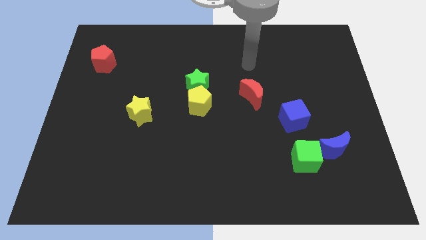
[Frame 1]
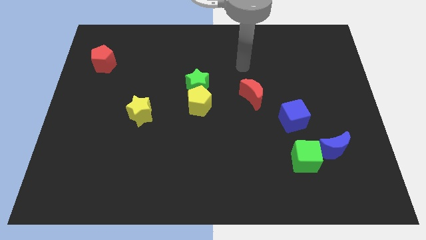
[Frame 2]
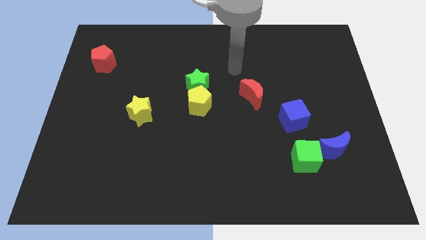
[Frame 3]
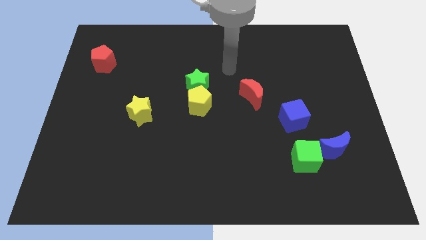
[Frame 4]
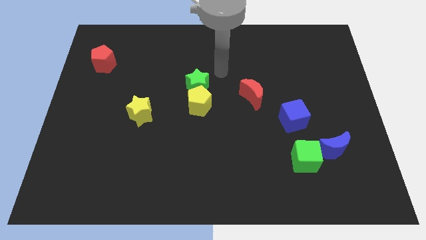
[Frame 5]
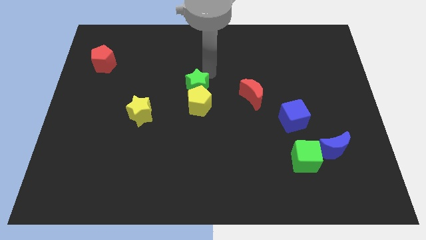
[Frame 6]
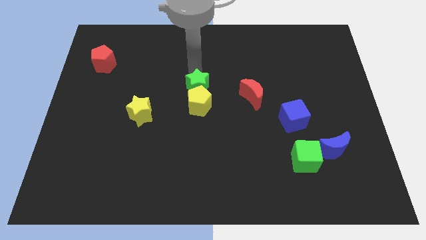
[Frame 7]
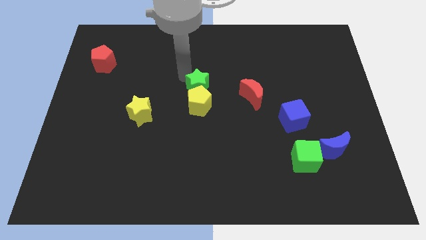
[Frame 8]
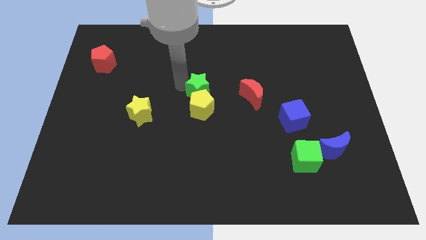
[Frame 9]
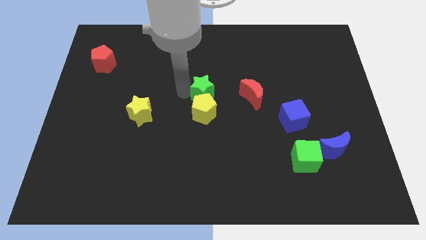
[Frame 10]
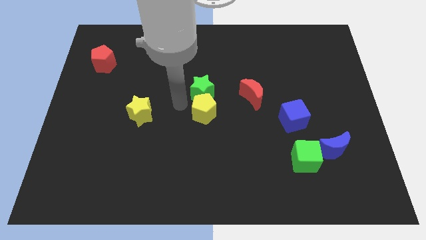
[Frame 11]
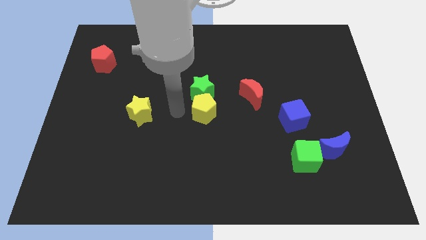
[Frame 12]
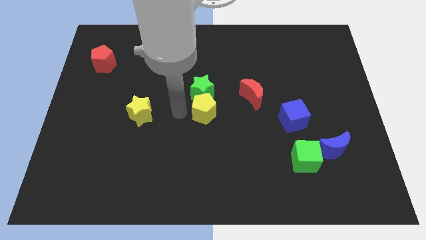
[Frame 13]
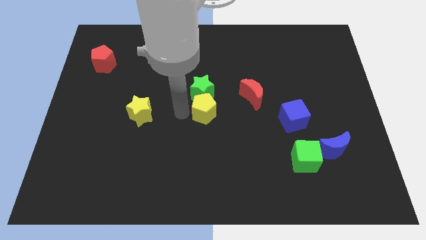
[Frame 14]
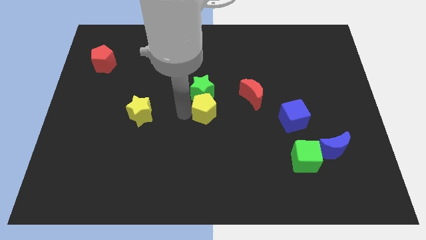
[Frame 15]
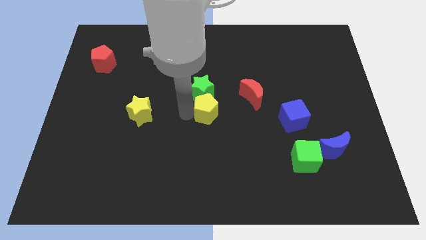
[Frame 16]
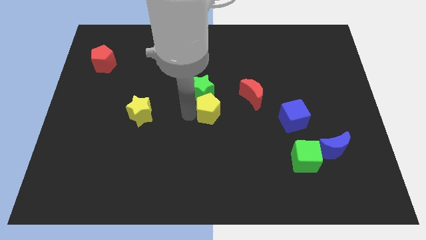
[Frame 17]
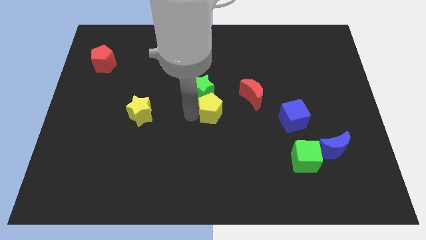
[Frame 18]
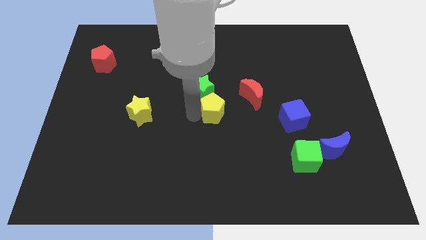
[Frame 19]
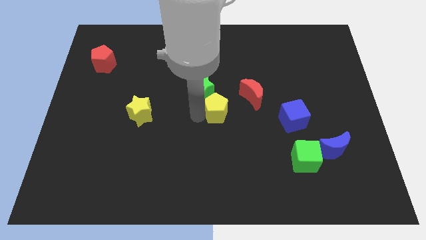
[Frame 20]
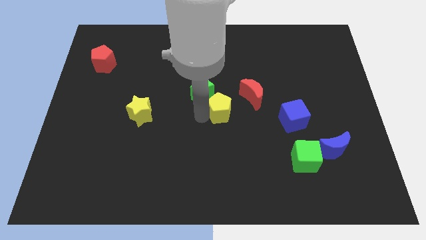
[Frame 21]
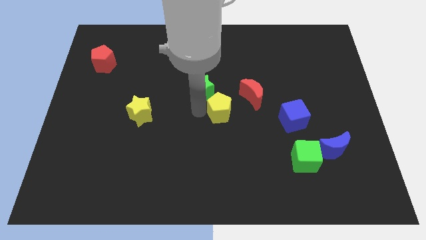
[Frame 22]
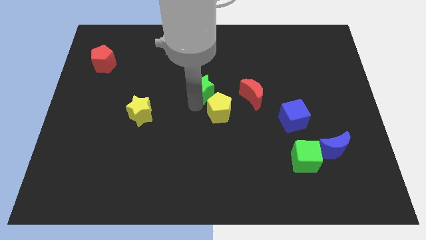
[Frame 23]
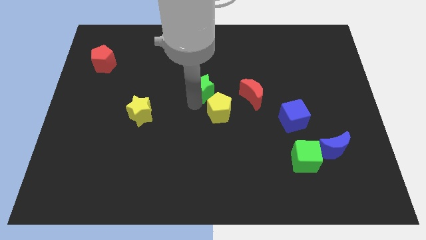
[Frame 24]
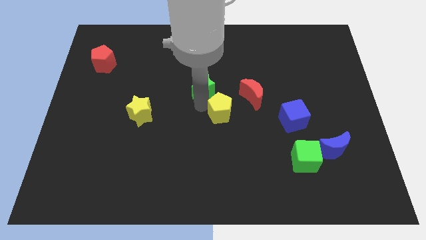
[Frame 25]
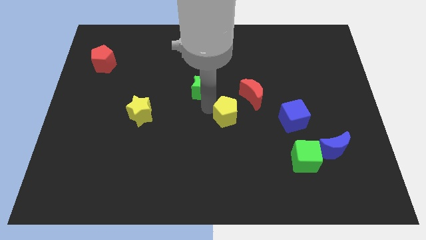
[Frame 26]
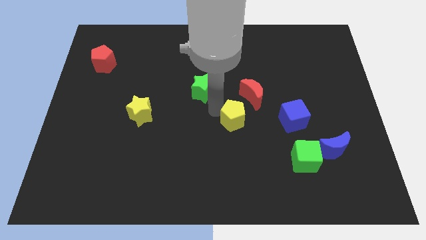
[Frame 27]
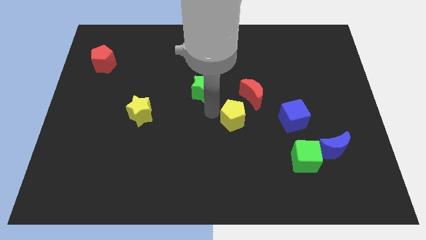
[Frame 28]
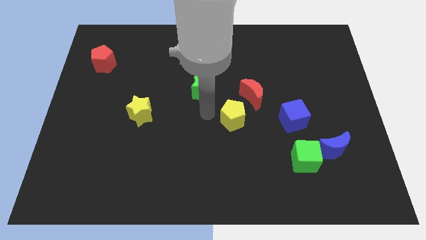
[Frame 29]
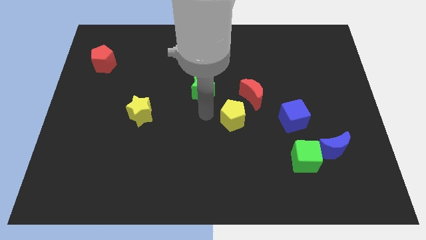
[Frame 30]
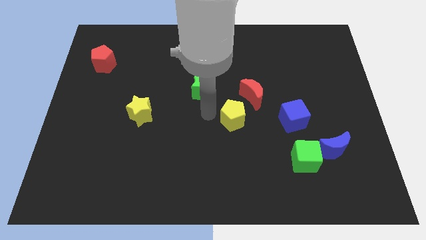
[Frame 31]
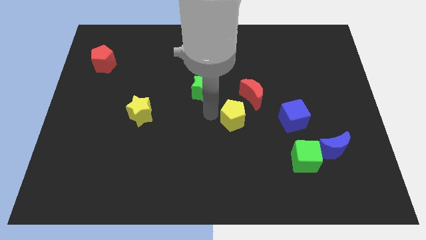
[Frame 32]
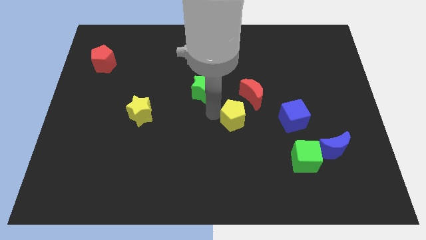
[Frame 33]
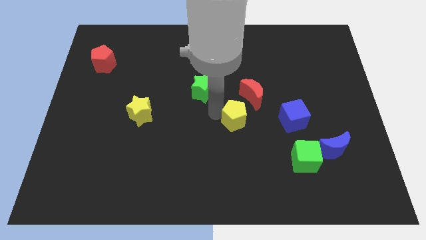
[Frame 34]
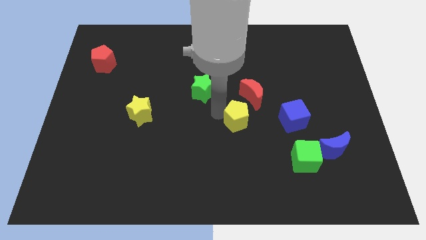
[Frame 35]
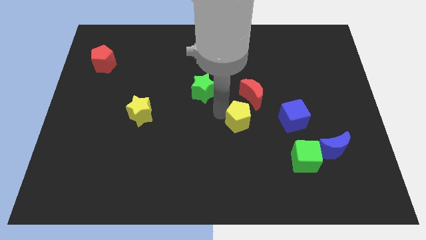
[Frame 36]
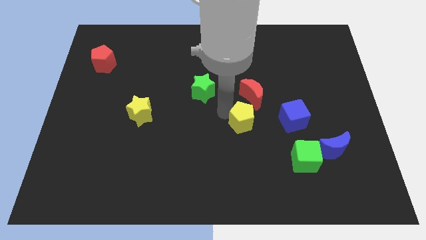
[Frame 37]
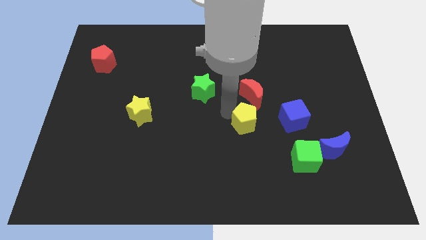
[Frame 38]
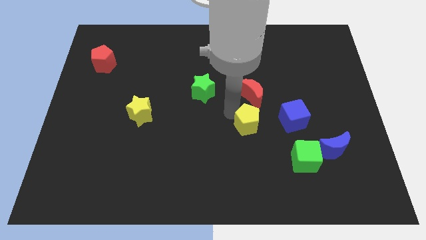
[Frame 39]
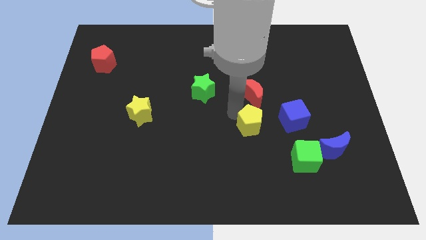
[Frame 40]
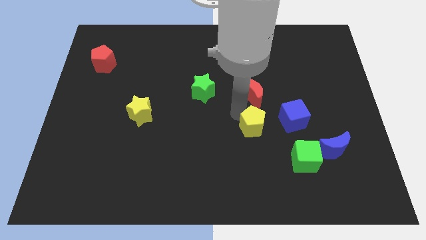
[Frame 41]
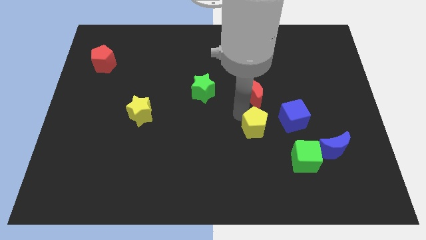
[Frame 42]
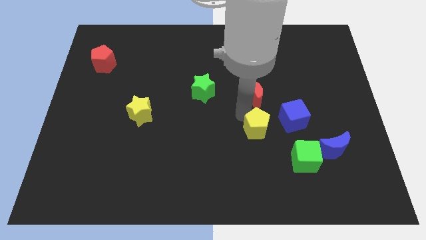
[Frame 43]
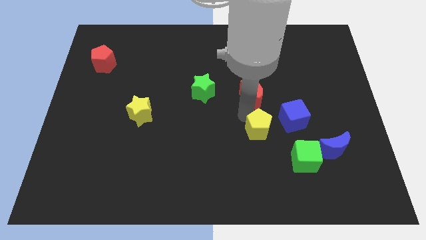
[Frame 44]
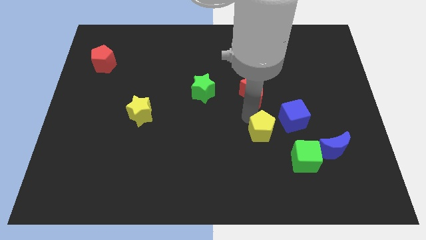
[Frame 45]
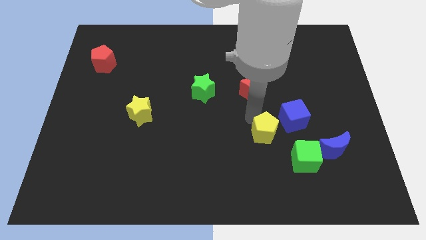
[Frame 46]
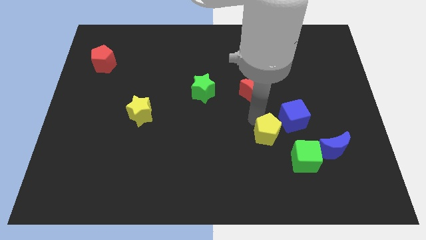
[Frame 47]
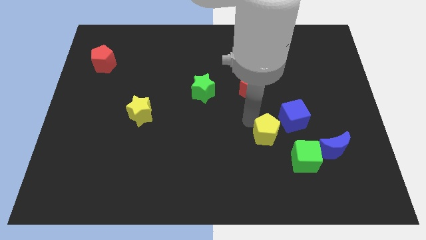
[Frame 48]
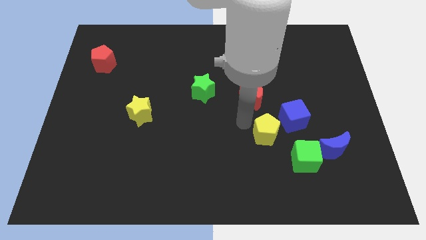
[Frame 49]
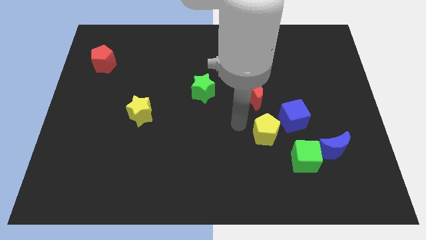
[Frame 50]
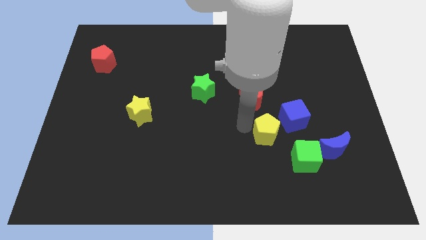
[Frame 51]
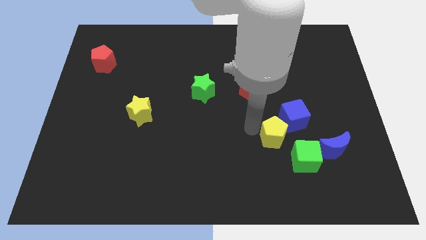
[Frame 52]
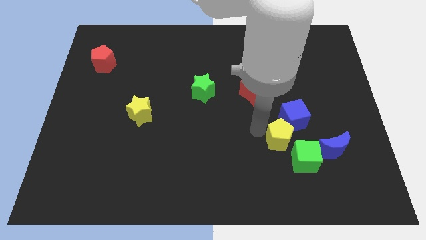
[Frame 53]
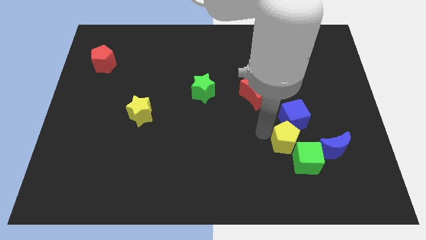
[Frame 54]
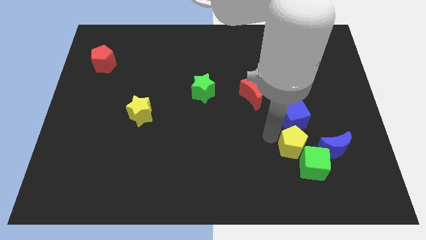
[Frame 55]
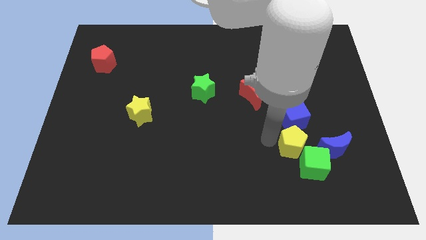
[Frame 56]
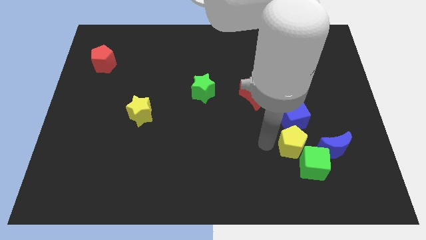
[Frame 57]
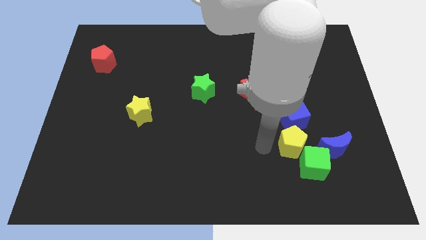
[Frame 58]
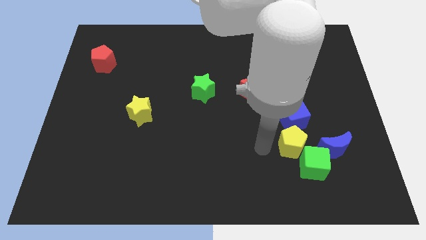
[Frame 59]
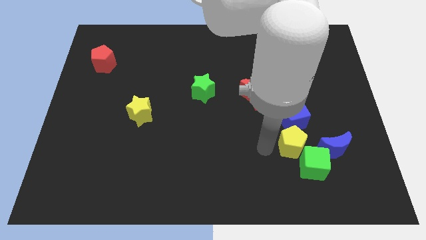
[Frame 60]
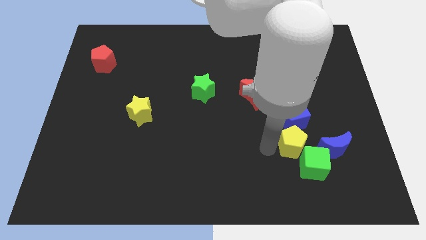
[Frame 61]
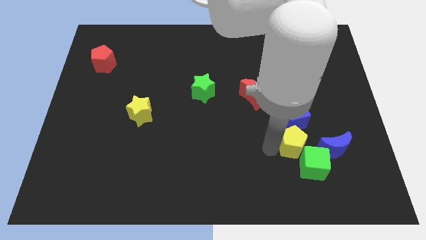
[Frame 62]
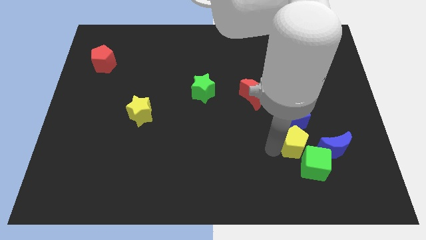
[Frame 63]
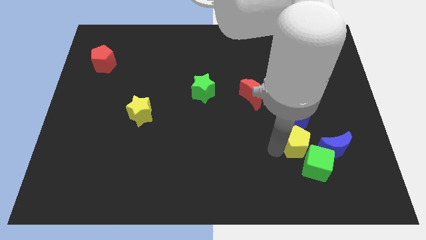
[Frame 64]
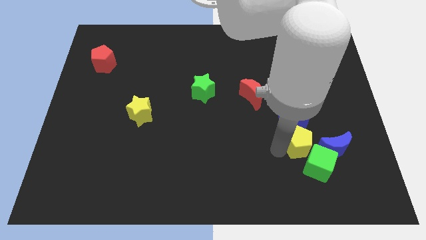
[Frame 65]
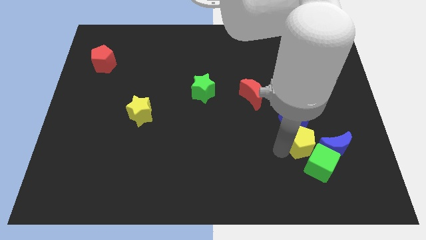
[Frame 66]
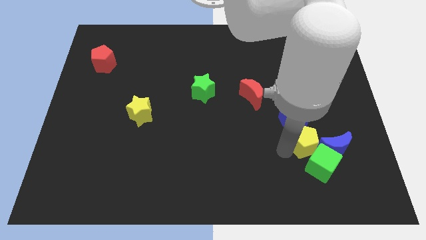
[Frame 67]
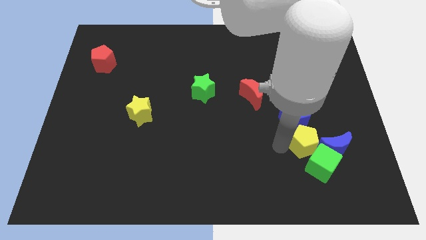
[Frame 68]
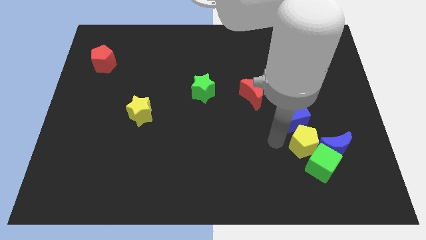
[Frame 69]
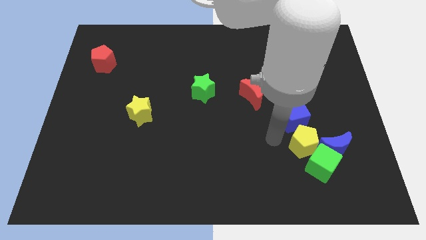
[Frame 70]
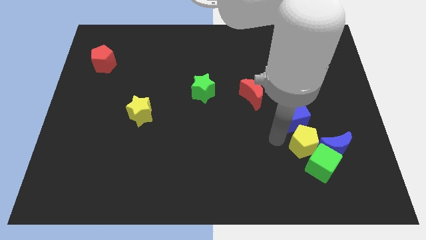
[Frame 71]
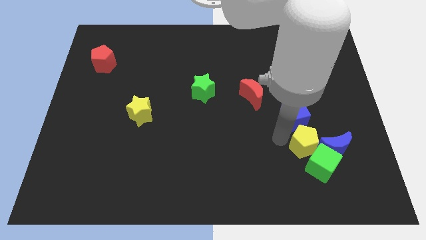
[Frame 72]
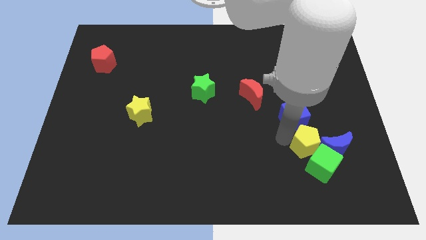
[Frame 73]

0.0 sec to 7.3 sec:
push the yellow pentagon towards the blue moon
